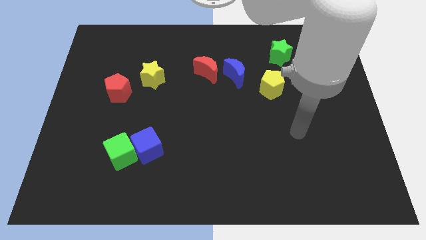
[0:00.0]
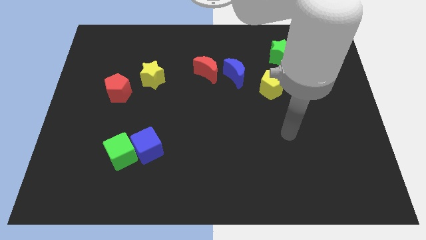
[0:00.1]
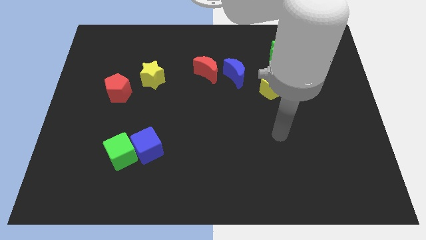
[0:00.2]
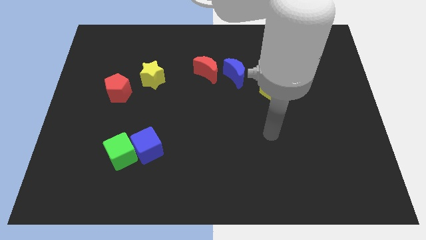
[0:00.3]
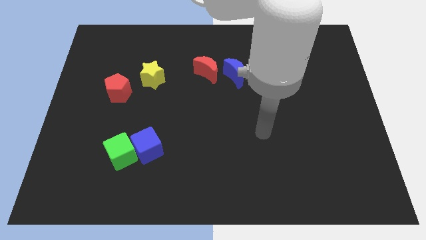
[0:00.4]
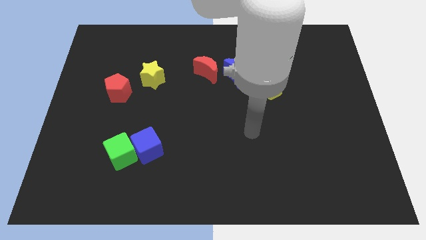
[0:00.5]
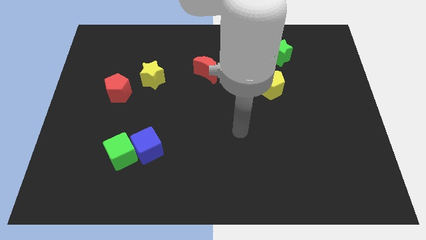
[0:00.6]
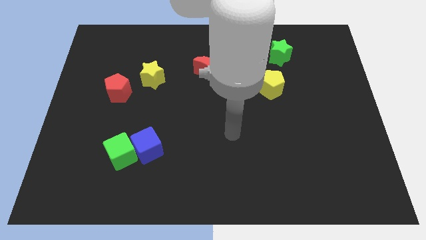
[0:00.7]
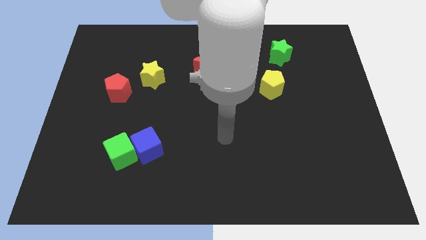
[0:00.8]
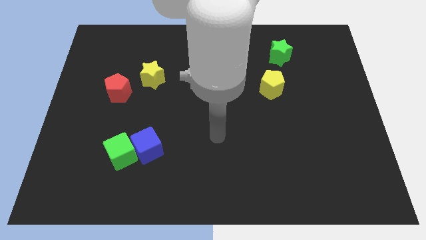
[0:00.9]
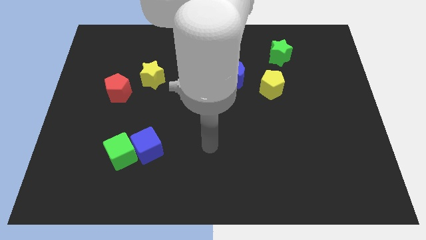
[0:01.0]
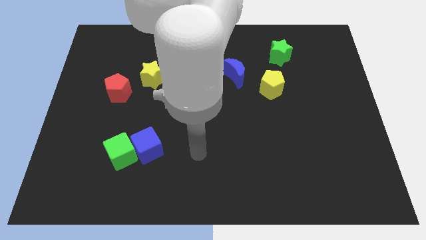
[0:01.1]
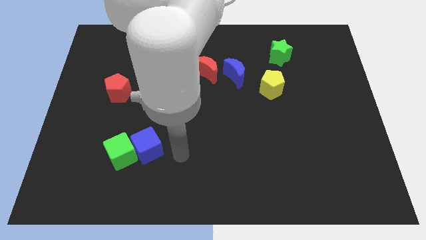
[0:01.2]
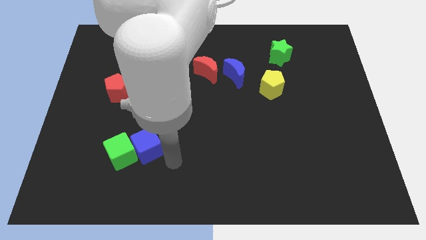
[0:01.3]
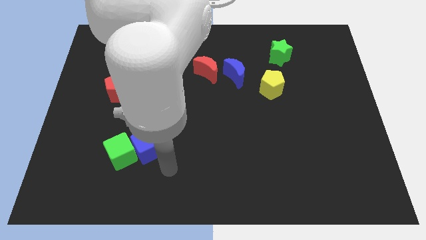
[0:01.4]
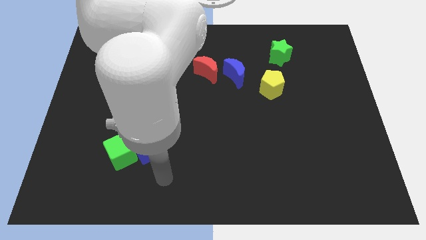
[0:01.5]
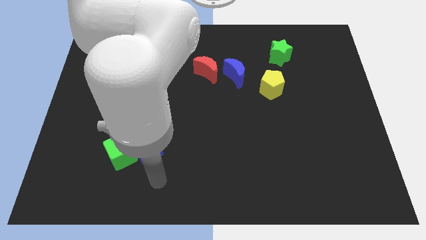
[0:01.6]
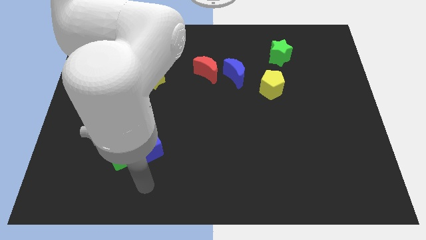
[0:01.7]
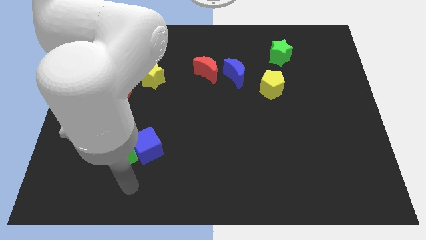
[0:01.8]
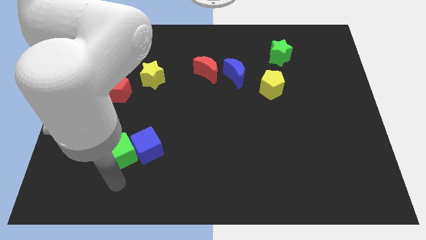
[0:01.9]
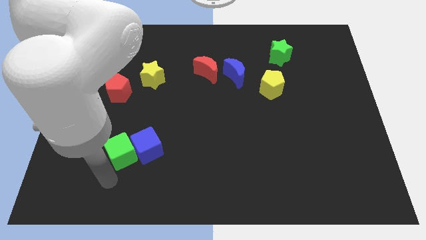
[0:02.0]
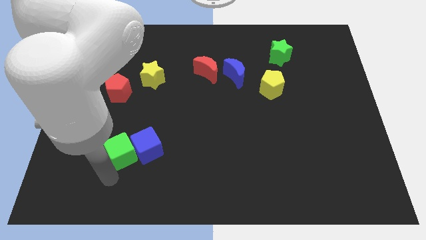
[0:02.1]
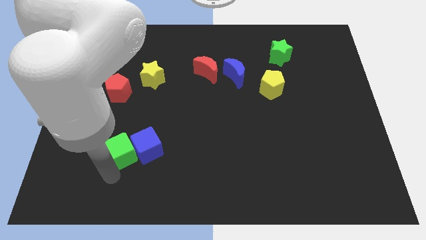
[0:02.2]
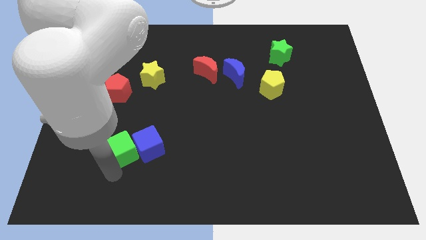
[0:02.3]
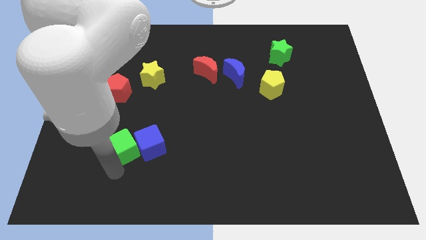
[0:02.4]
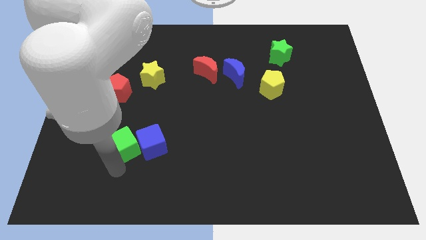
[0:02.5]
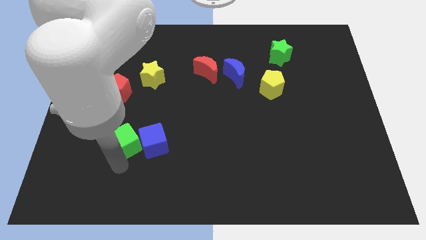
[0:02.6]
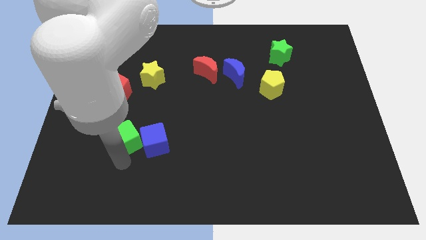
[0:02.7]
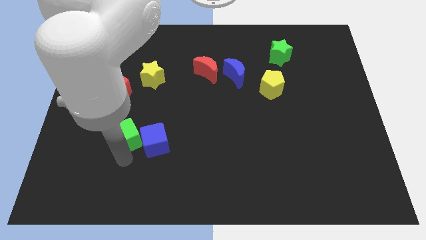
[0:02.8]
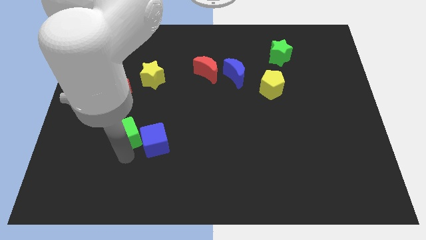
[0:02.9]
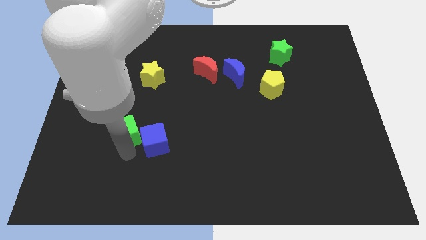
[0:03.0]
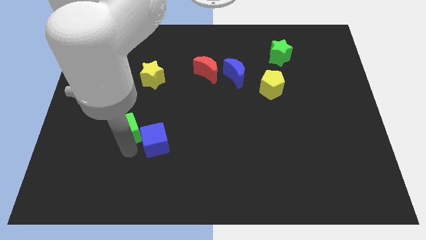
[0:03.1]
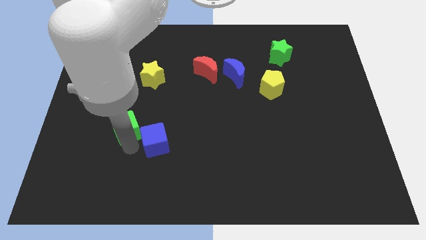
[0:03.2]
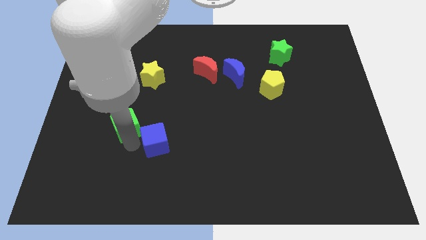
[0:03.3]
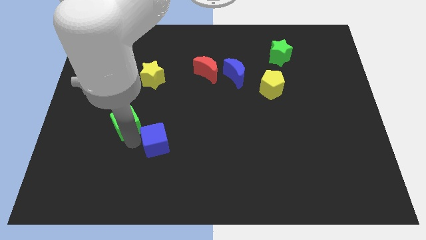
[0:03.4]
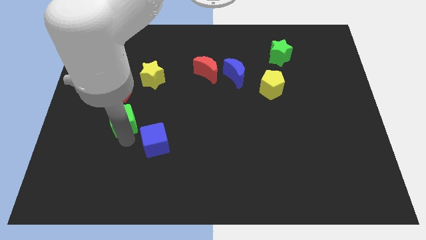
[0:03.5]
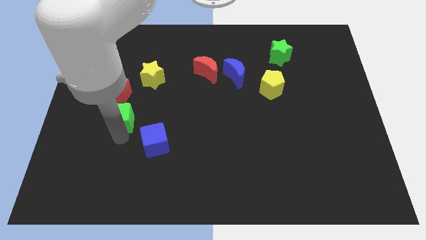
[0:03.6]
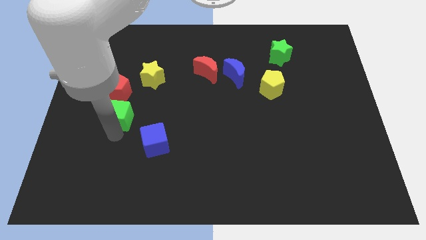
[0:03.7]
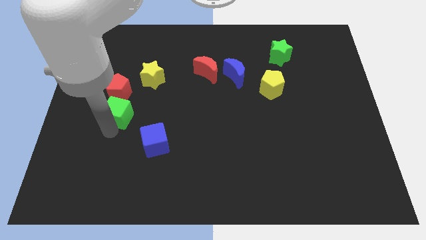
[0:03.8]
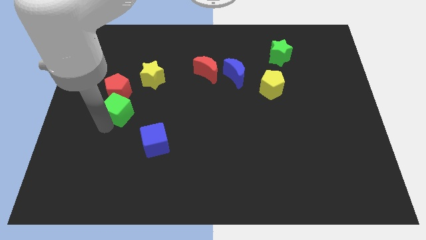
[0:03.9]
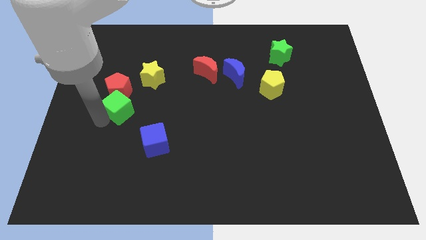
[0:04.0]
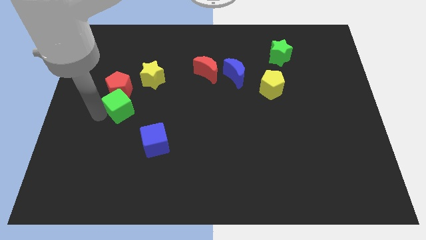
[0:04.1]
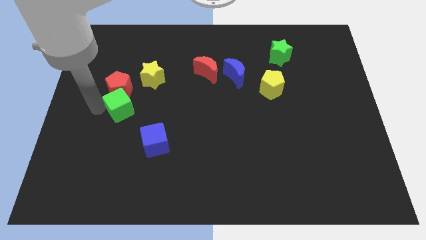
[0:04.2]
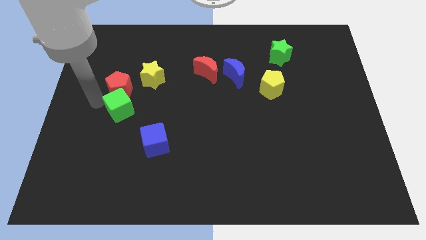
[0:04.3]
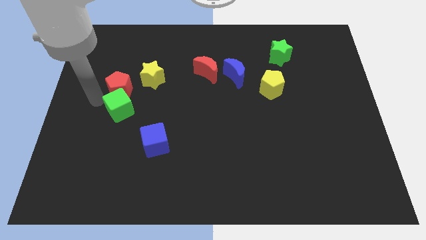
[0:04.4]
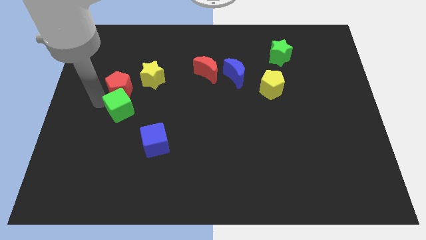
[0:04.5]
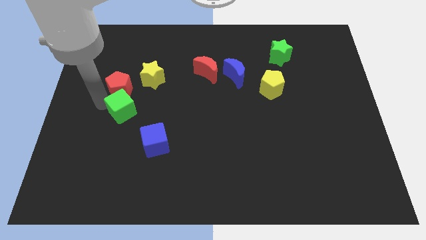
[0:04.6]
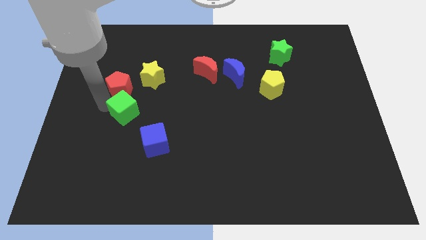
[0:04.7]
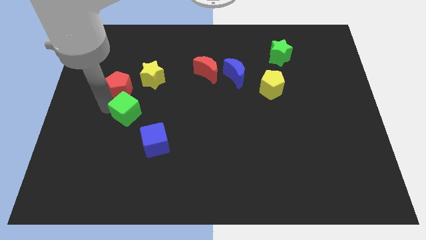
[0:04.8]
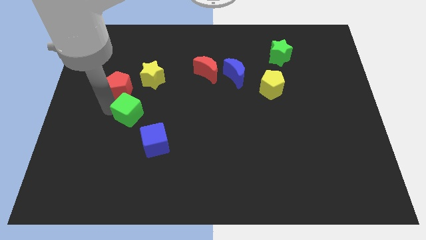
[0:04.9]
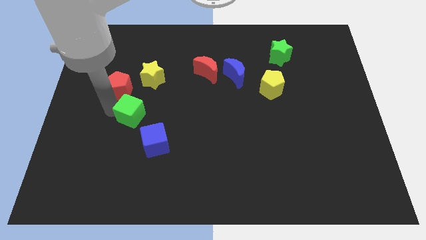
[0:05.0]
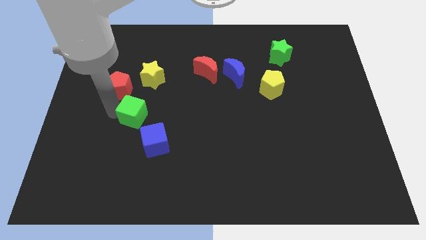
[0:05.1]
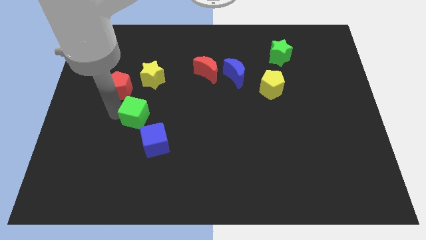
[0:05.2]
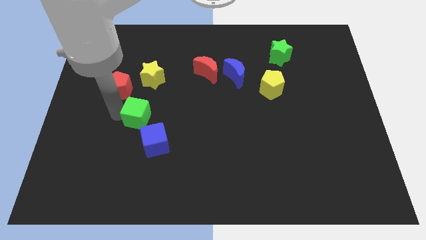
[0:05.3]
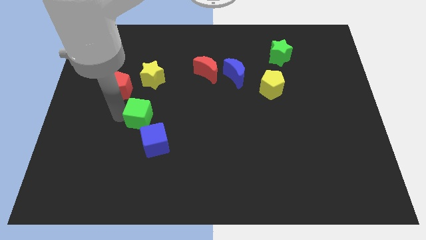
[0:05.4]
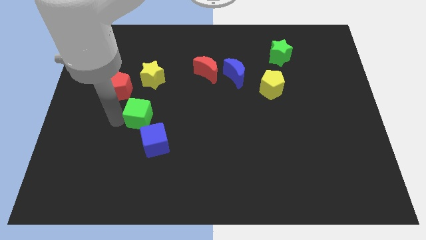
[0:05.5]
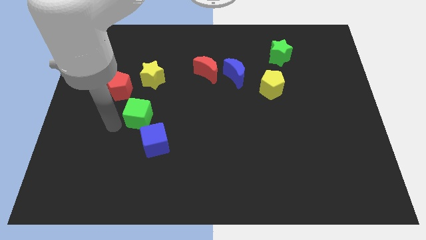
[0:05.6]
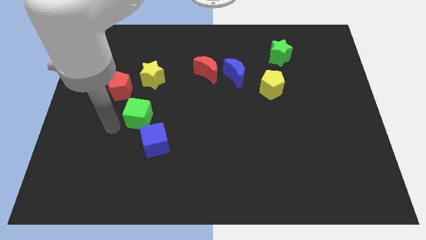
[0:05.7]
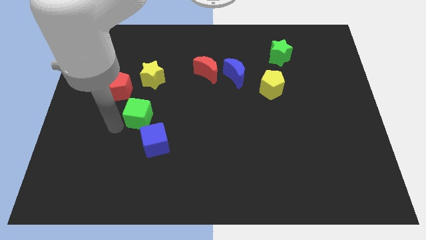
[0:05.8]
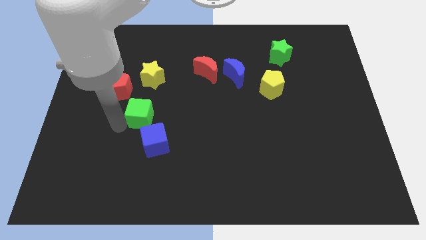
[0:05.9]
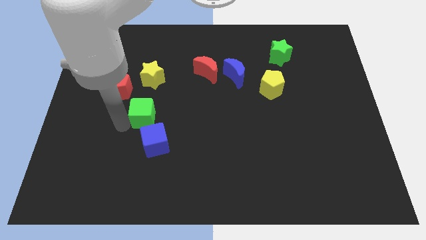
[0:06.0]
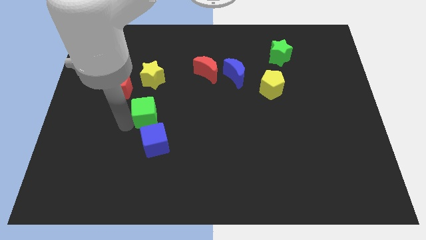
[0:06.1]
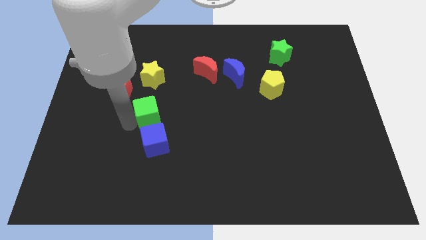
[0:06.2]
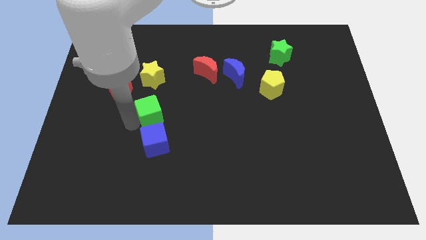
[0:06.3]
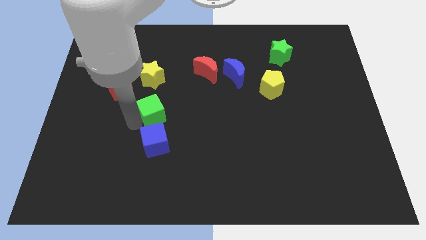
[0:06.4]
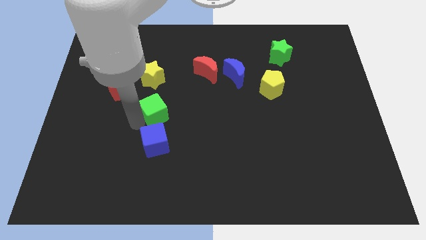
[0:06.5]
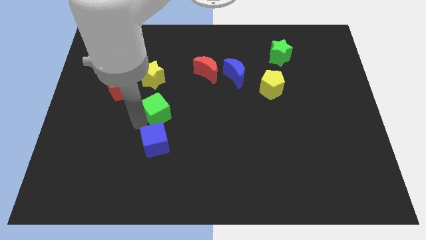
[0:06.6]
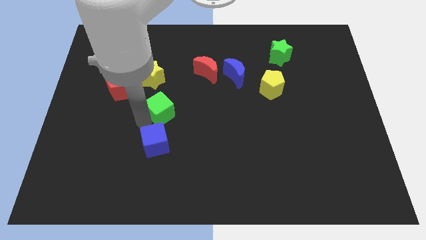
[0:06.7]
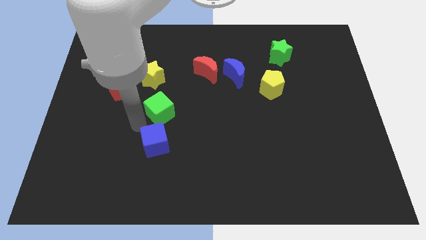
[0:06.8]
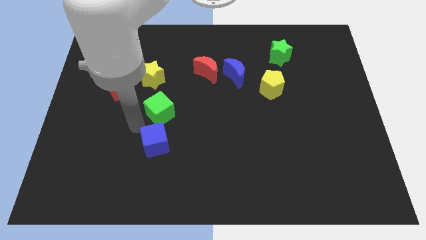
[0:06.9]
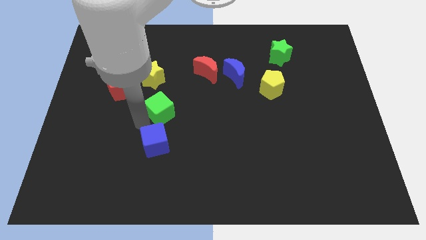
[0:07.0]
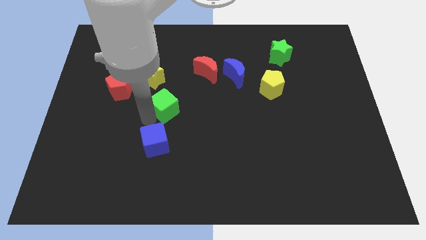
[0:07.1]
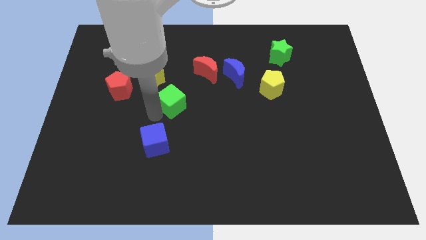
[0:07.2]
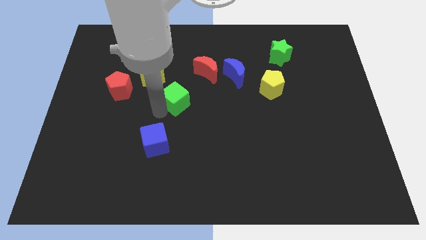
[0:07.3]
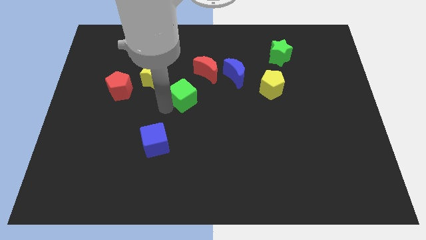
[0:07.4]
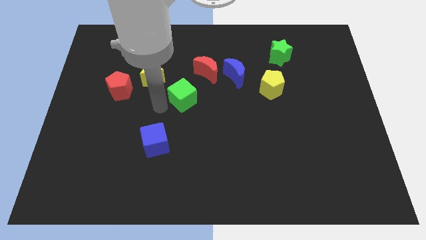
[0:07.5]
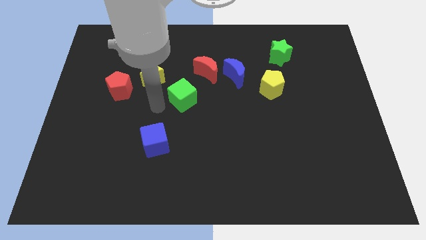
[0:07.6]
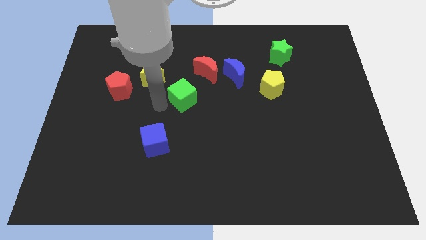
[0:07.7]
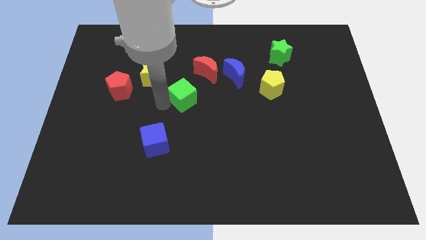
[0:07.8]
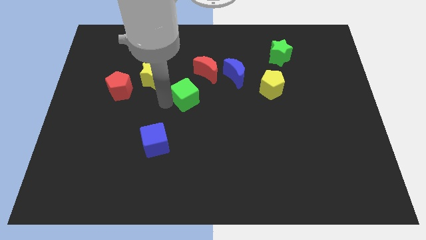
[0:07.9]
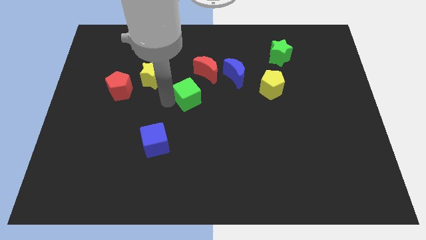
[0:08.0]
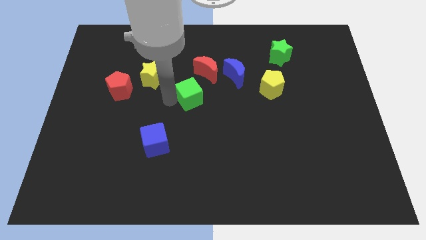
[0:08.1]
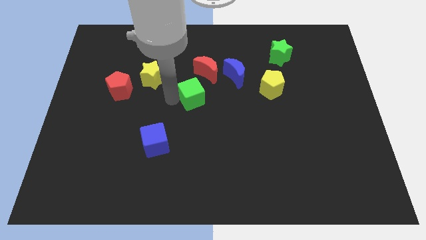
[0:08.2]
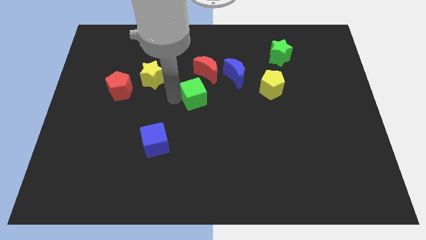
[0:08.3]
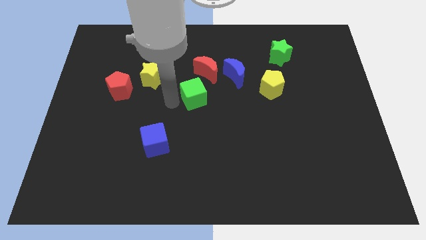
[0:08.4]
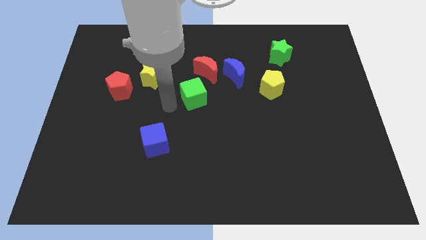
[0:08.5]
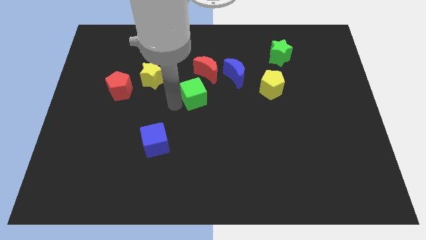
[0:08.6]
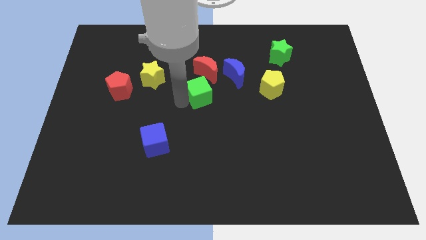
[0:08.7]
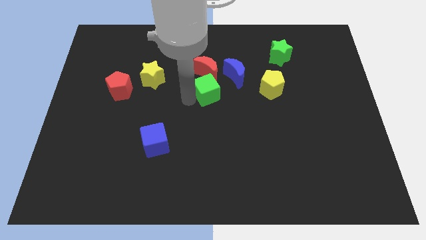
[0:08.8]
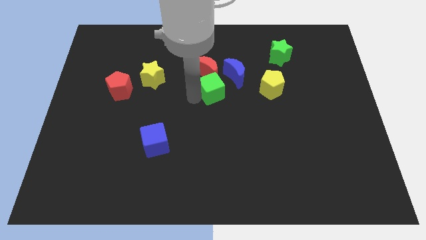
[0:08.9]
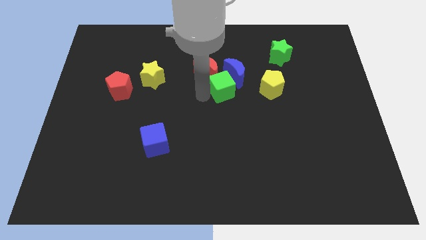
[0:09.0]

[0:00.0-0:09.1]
slide the green cube close to the blue moon
